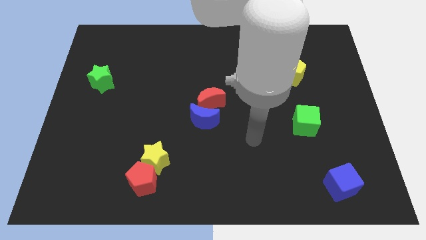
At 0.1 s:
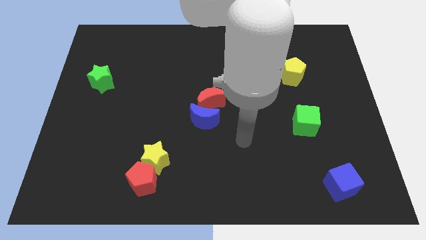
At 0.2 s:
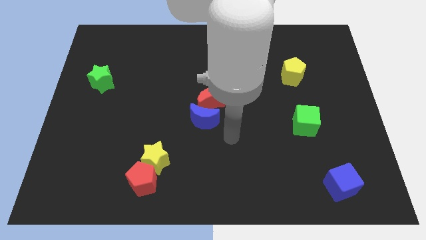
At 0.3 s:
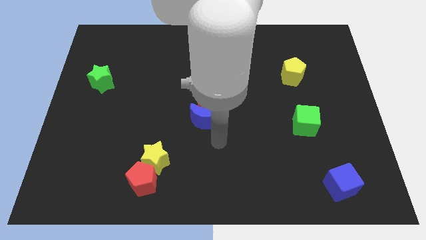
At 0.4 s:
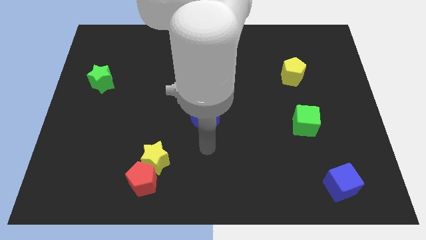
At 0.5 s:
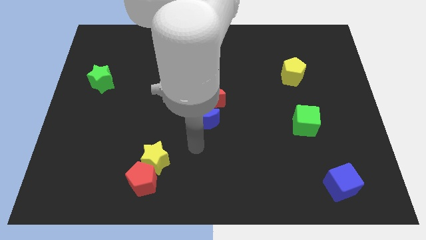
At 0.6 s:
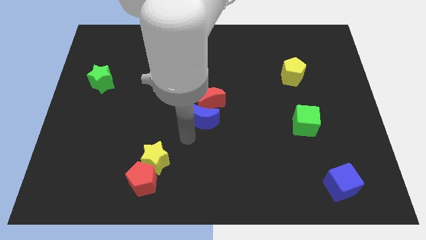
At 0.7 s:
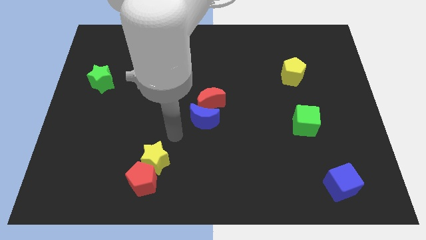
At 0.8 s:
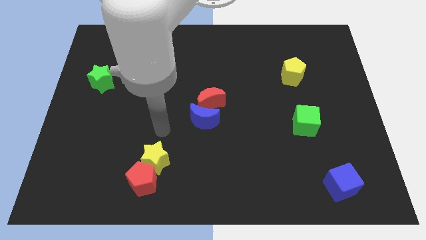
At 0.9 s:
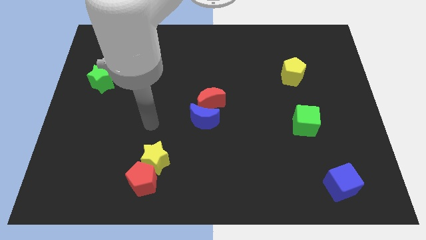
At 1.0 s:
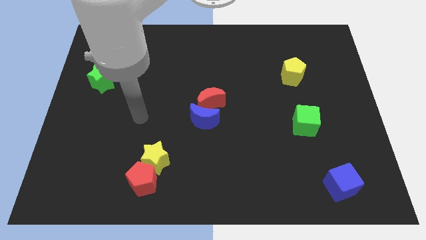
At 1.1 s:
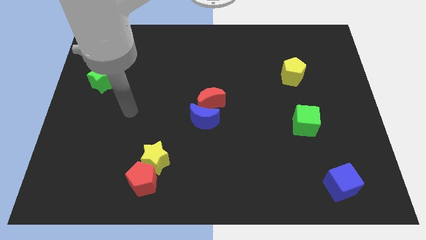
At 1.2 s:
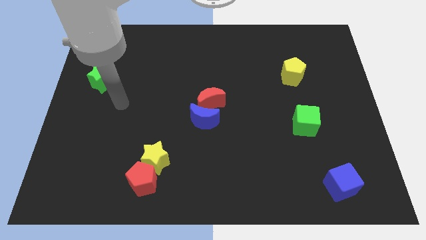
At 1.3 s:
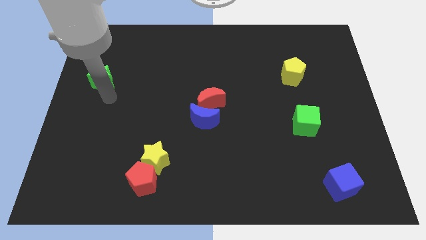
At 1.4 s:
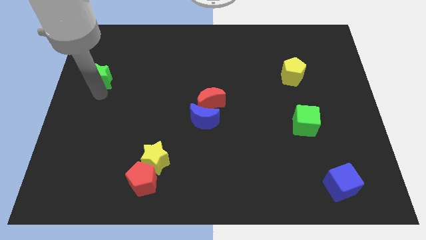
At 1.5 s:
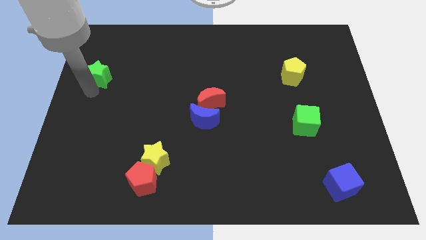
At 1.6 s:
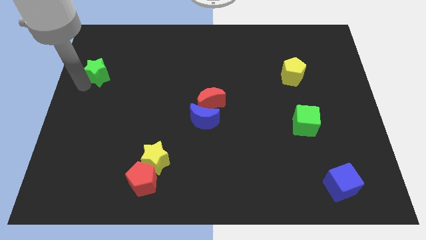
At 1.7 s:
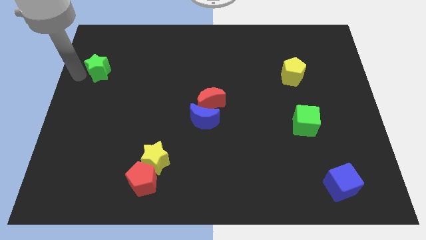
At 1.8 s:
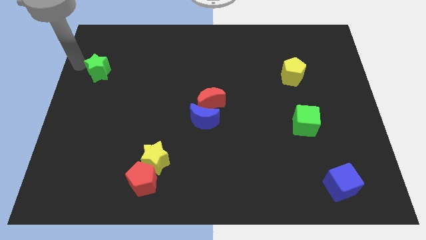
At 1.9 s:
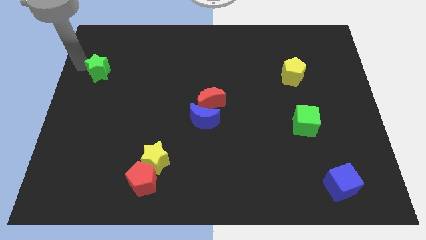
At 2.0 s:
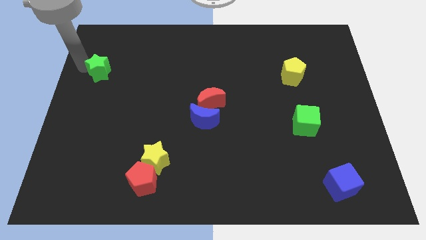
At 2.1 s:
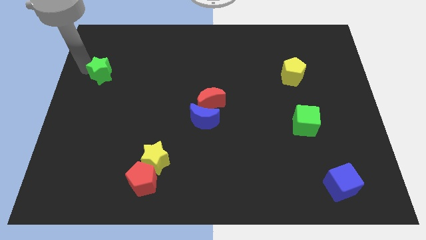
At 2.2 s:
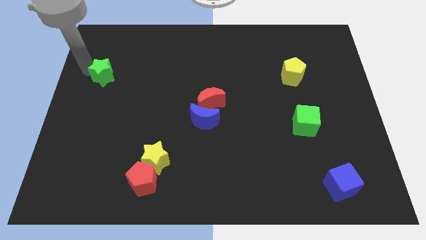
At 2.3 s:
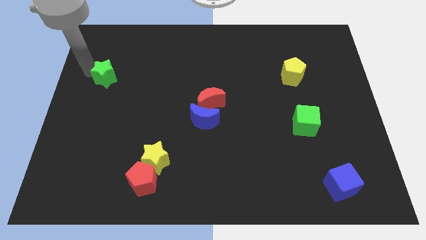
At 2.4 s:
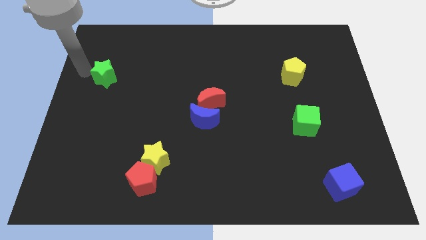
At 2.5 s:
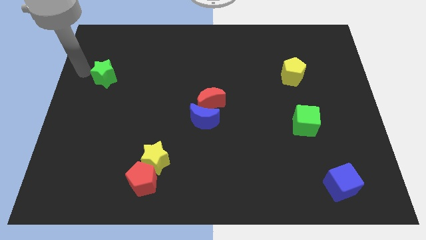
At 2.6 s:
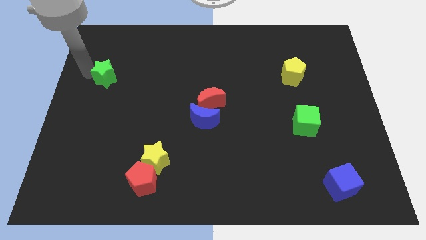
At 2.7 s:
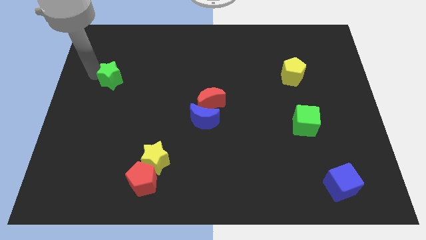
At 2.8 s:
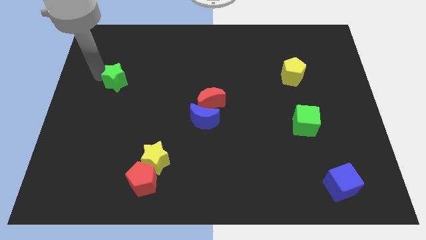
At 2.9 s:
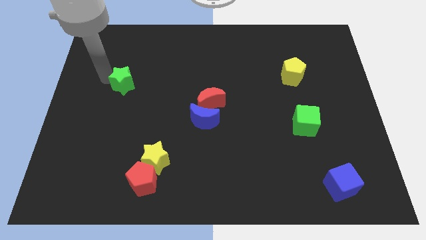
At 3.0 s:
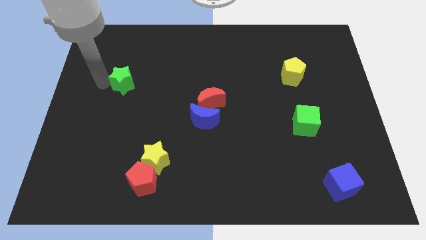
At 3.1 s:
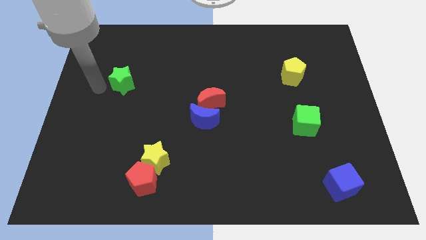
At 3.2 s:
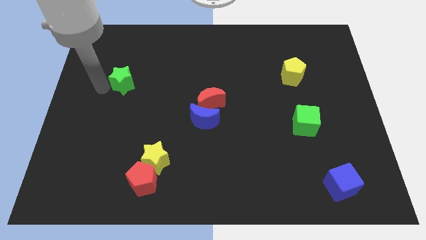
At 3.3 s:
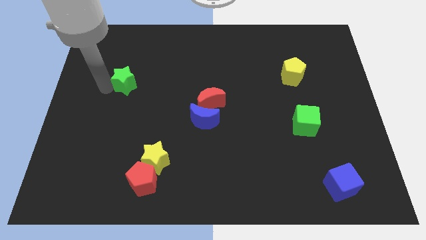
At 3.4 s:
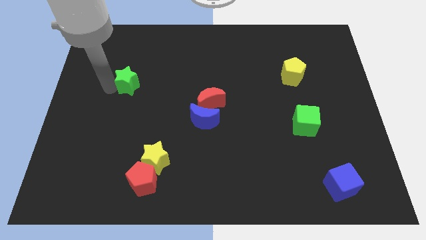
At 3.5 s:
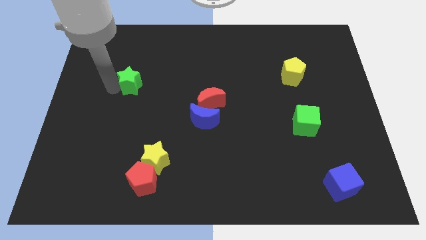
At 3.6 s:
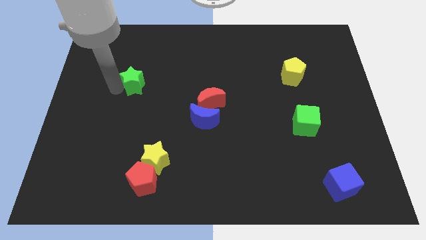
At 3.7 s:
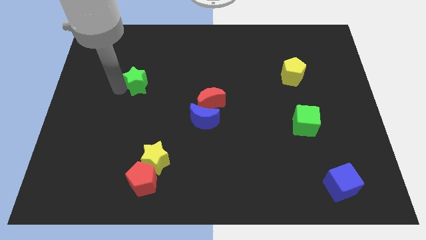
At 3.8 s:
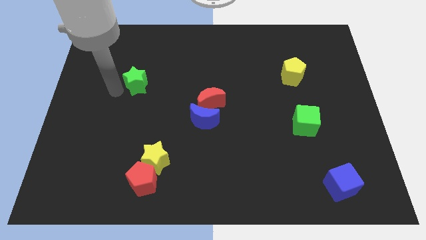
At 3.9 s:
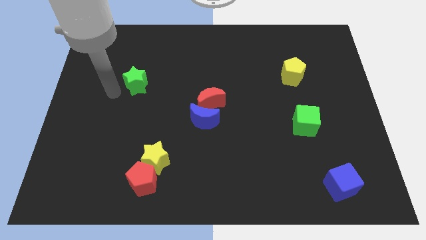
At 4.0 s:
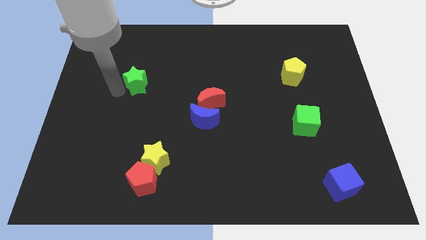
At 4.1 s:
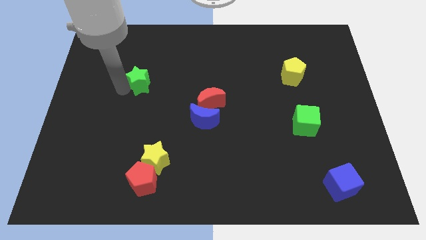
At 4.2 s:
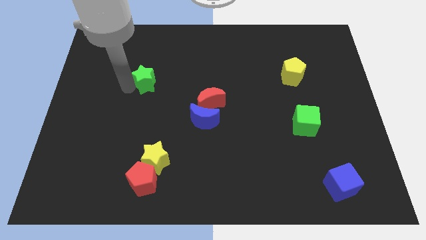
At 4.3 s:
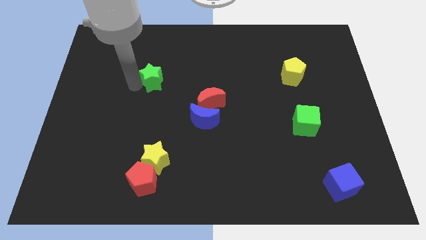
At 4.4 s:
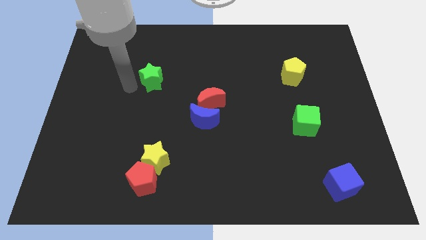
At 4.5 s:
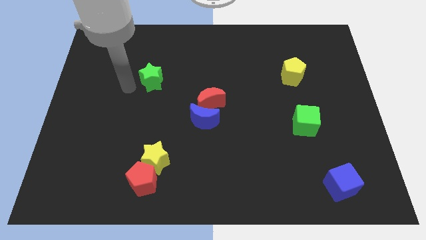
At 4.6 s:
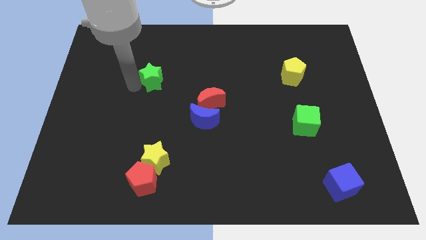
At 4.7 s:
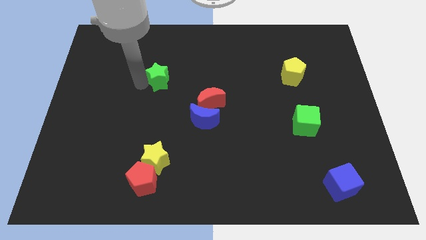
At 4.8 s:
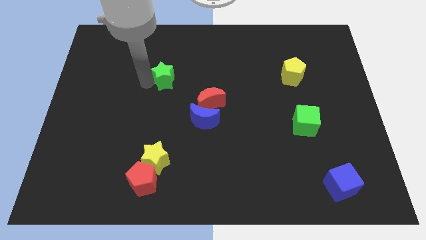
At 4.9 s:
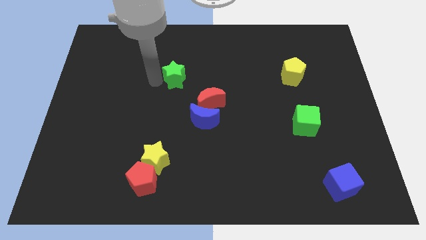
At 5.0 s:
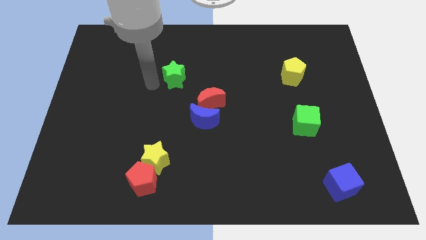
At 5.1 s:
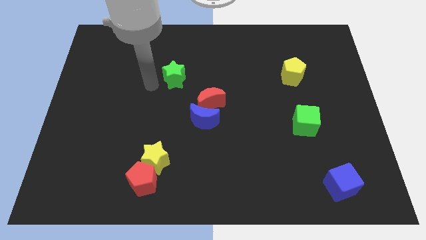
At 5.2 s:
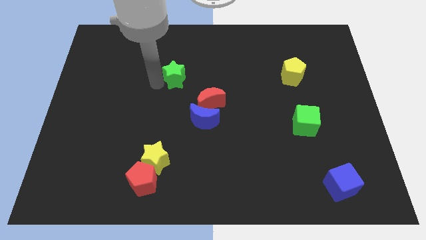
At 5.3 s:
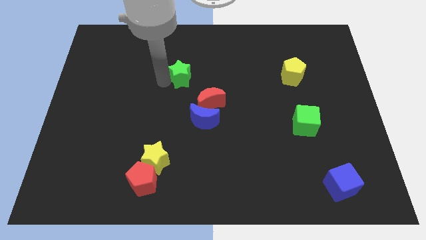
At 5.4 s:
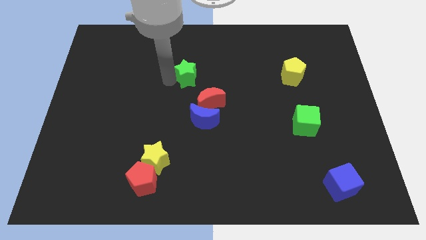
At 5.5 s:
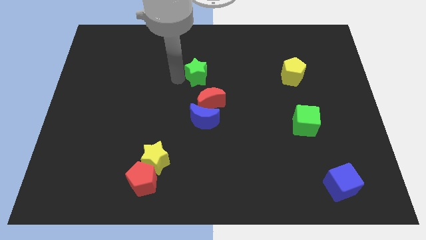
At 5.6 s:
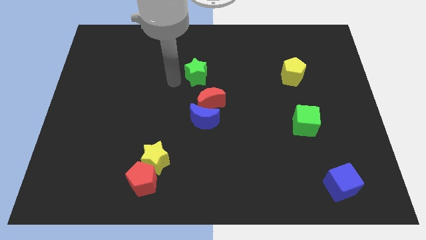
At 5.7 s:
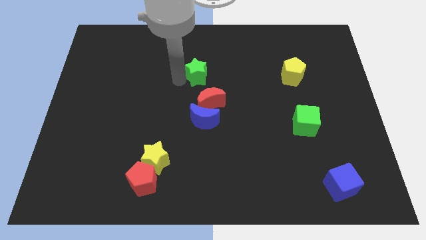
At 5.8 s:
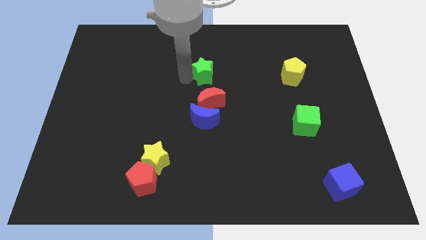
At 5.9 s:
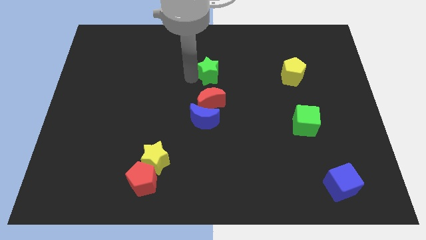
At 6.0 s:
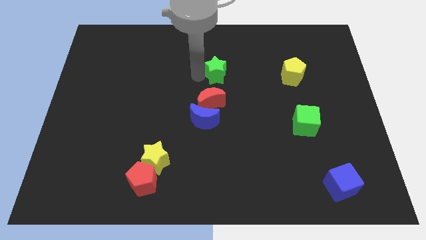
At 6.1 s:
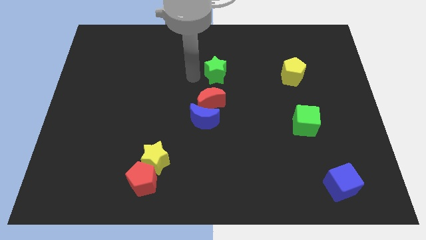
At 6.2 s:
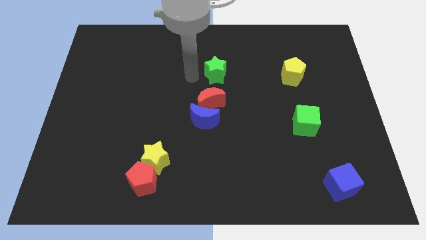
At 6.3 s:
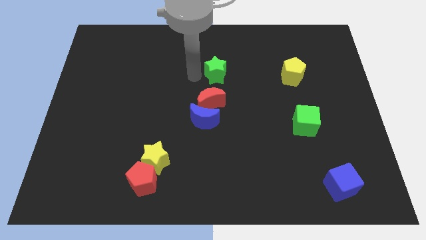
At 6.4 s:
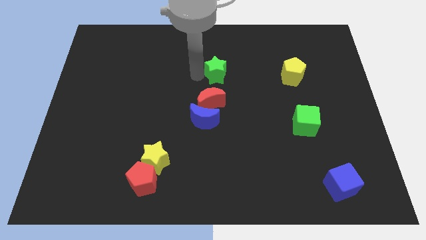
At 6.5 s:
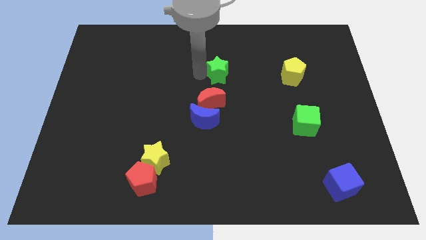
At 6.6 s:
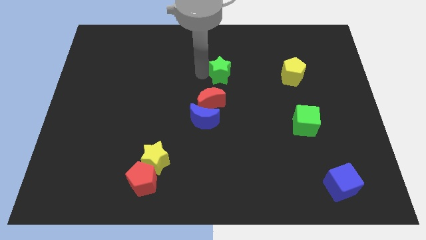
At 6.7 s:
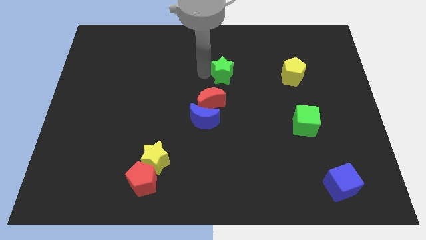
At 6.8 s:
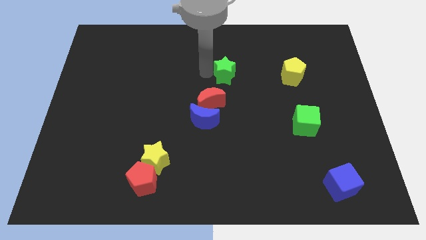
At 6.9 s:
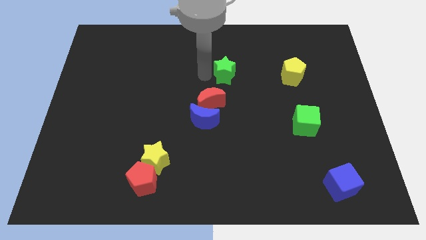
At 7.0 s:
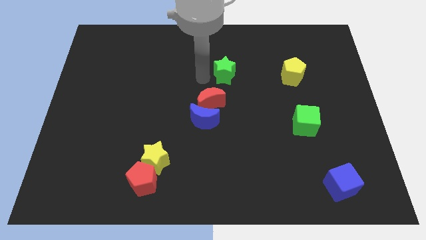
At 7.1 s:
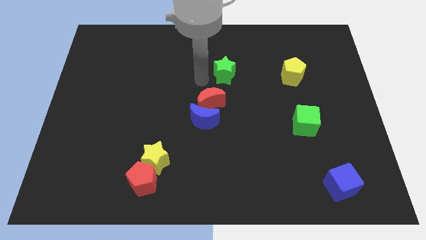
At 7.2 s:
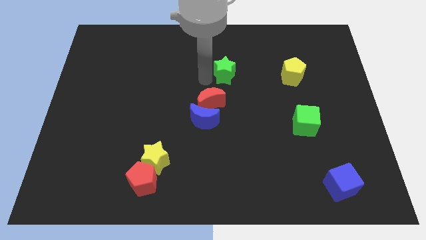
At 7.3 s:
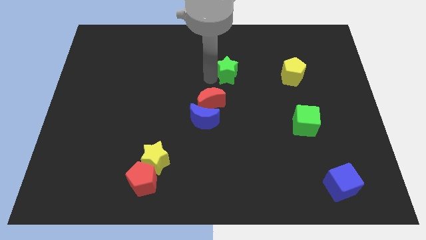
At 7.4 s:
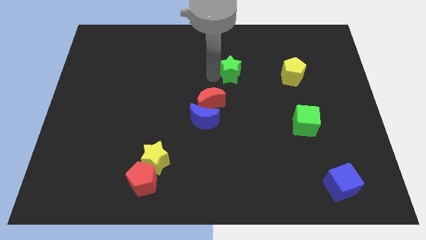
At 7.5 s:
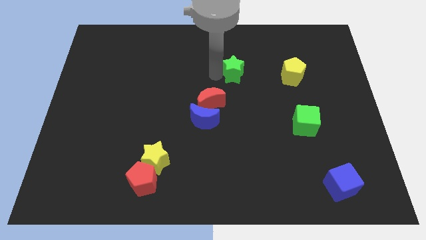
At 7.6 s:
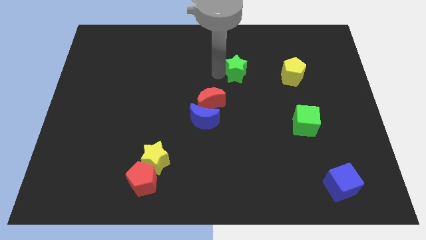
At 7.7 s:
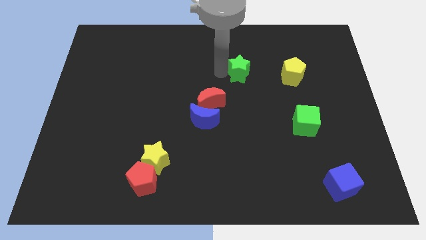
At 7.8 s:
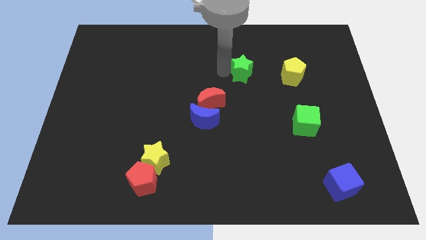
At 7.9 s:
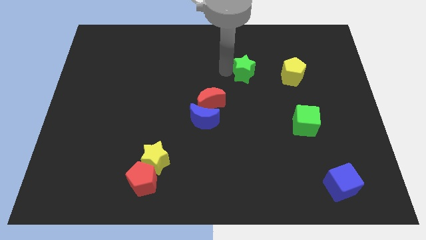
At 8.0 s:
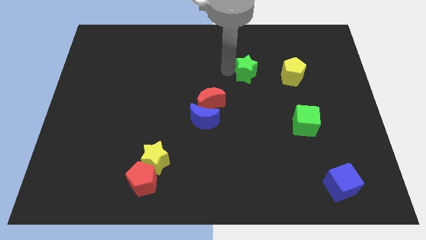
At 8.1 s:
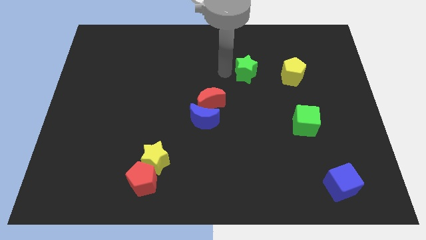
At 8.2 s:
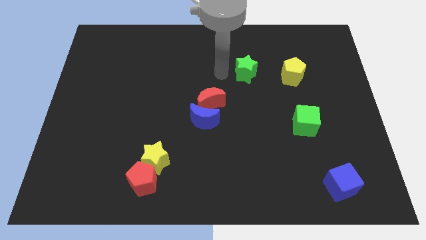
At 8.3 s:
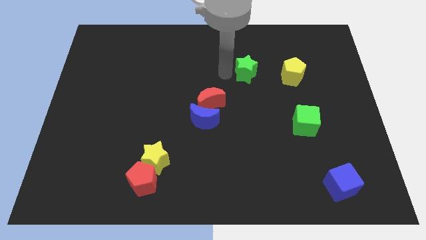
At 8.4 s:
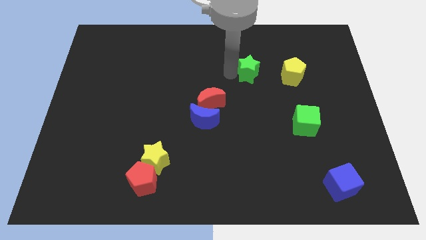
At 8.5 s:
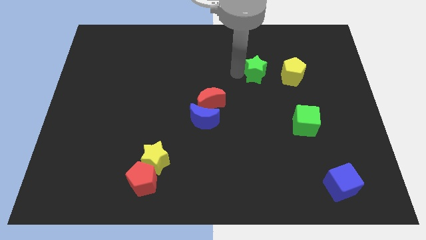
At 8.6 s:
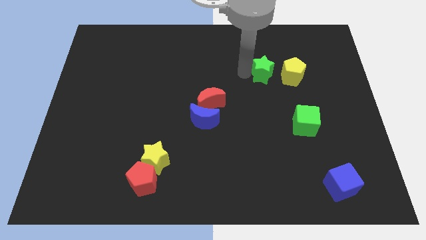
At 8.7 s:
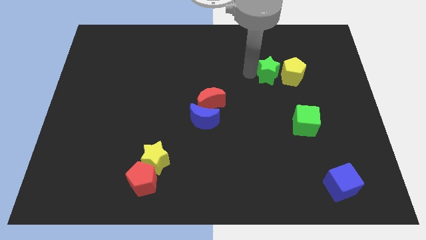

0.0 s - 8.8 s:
push the green star to the yellow pentagon
